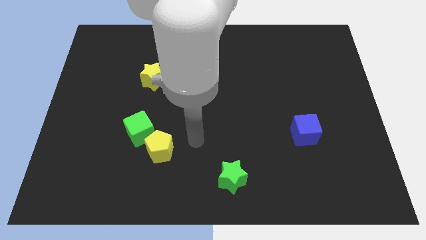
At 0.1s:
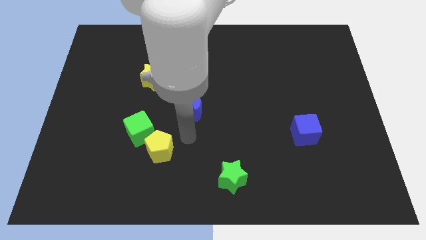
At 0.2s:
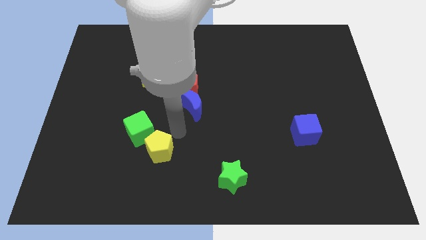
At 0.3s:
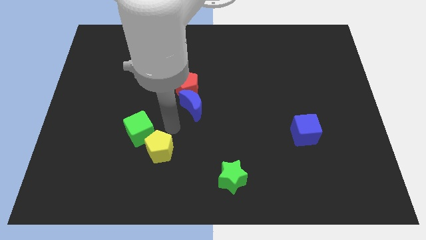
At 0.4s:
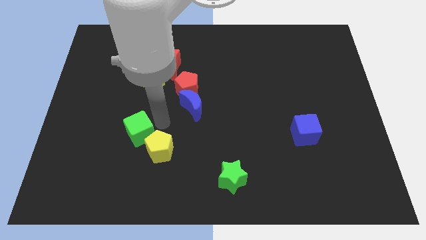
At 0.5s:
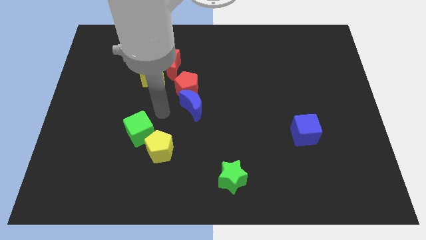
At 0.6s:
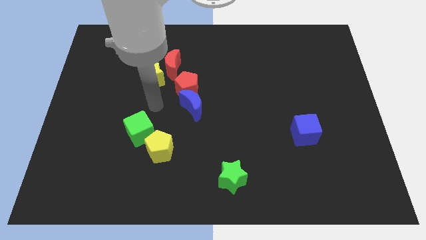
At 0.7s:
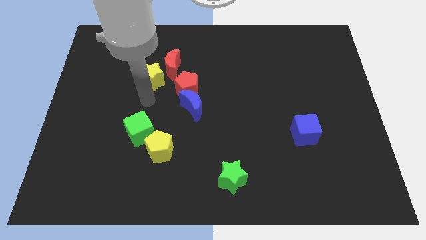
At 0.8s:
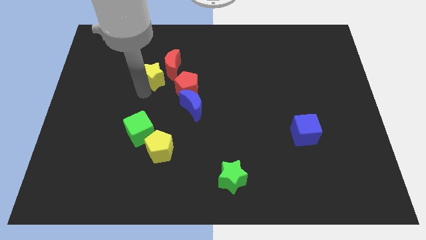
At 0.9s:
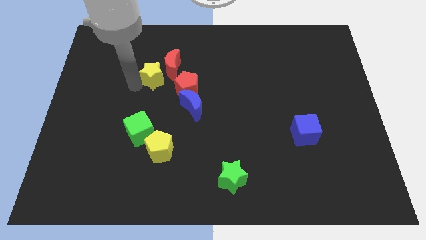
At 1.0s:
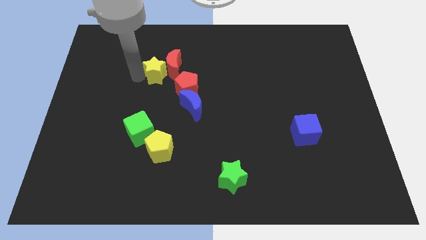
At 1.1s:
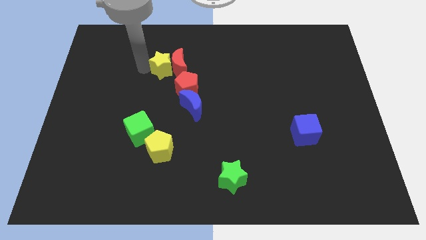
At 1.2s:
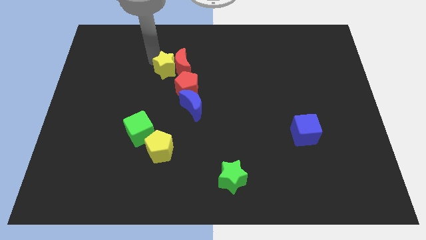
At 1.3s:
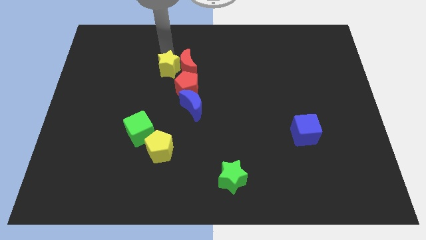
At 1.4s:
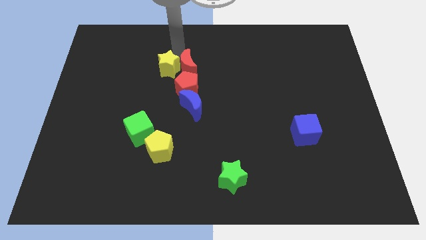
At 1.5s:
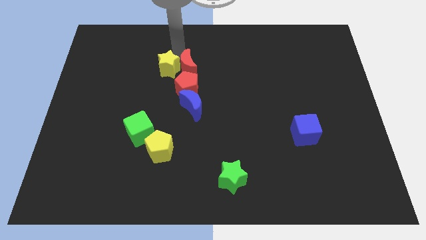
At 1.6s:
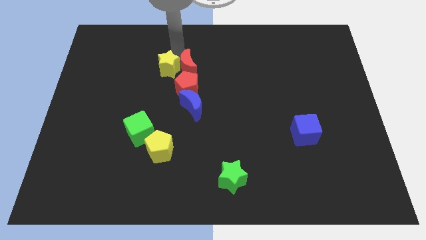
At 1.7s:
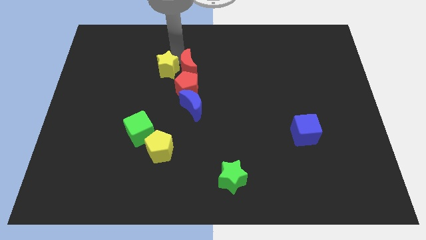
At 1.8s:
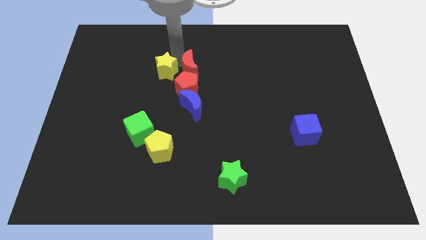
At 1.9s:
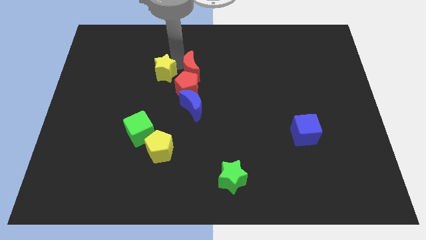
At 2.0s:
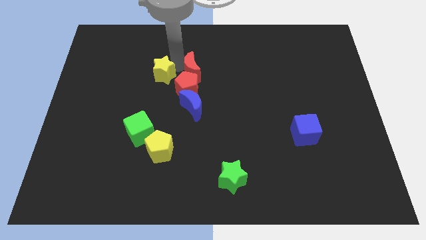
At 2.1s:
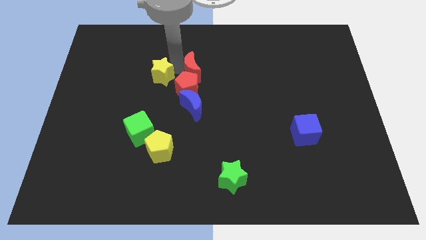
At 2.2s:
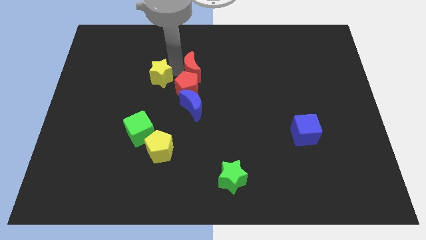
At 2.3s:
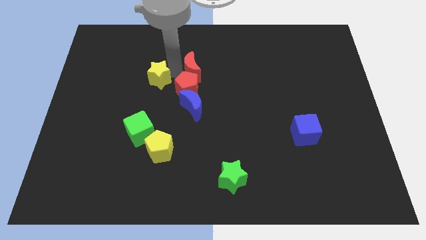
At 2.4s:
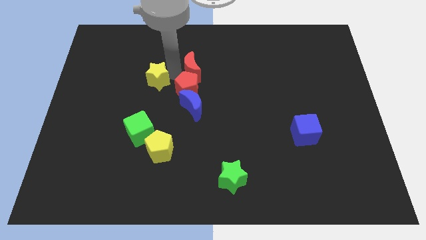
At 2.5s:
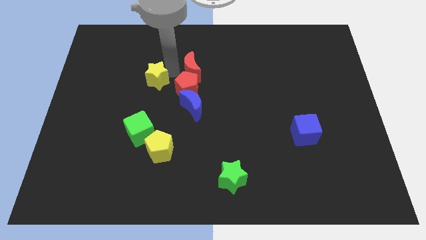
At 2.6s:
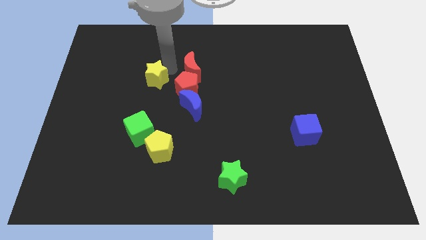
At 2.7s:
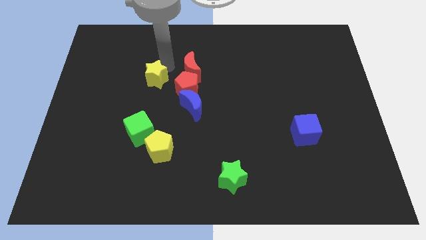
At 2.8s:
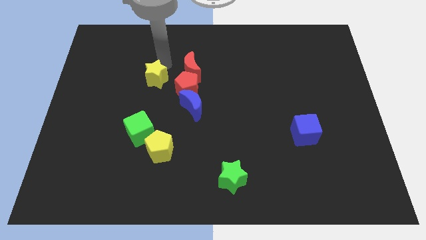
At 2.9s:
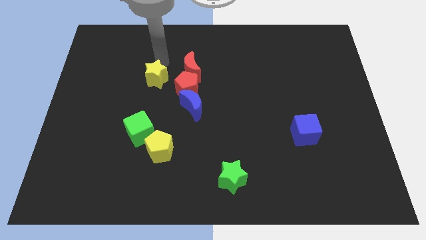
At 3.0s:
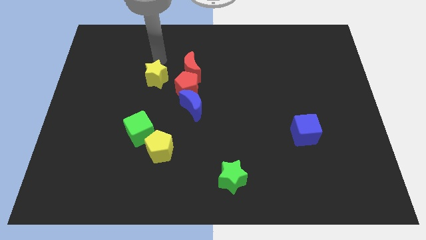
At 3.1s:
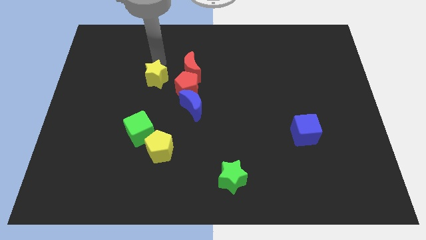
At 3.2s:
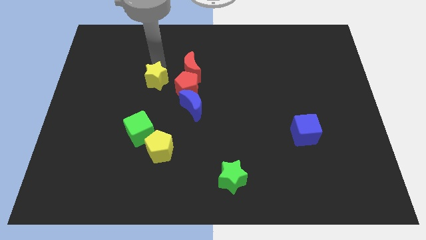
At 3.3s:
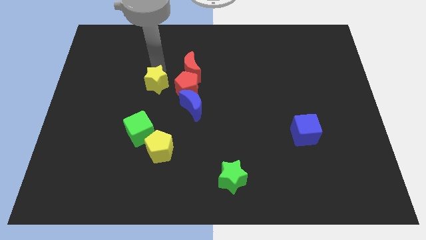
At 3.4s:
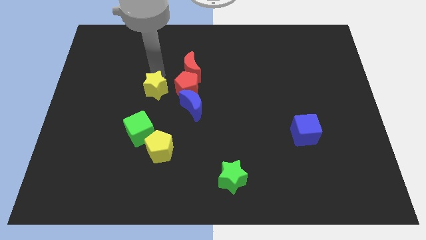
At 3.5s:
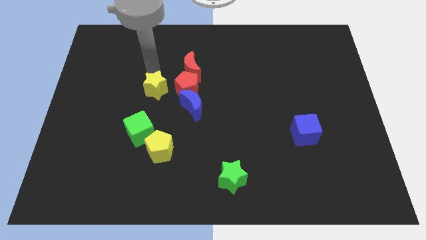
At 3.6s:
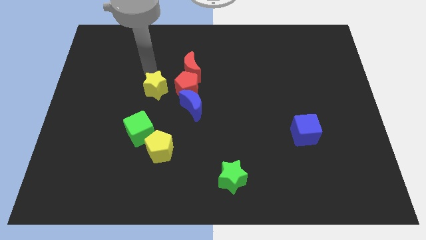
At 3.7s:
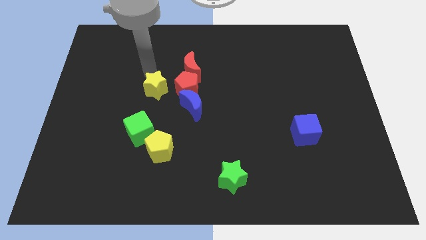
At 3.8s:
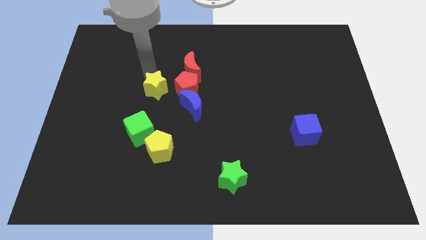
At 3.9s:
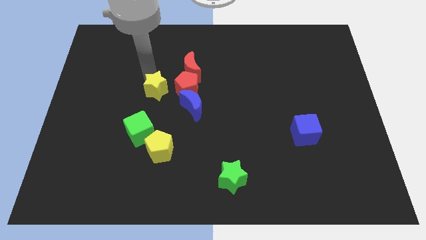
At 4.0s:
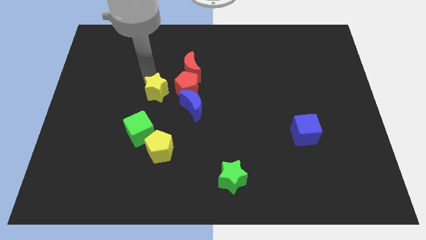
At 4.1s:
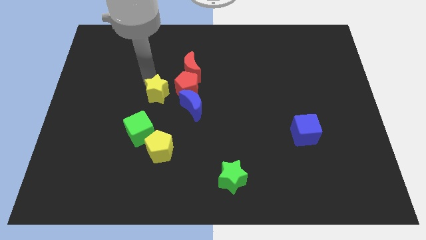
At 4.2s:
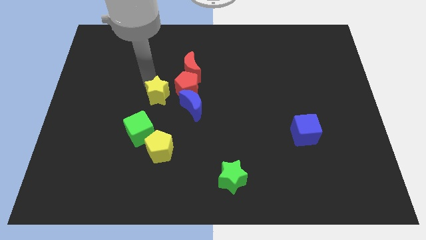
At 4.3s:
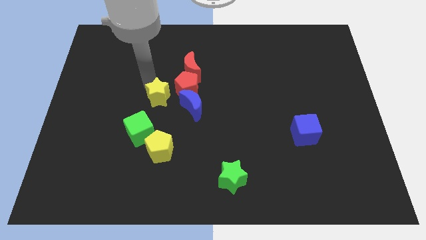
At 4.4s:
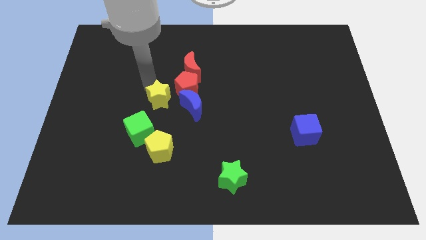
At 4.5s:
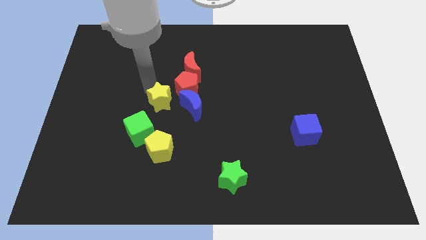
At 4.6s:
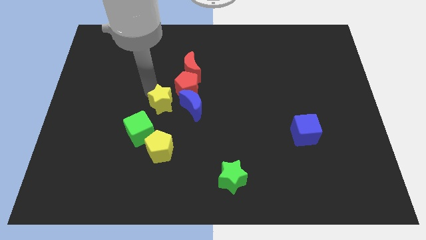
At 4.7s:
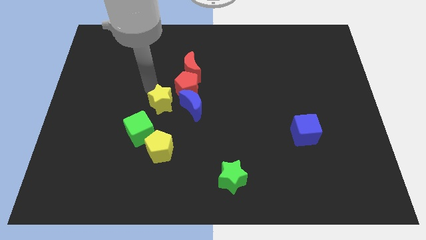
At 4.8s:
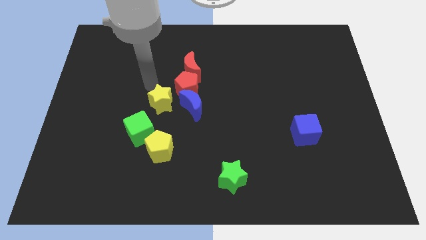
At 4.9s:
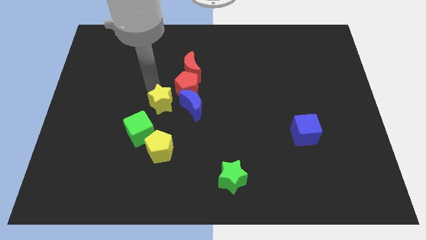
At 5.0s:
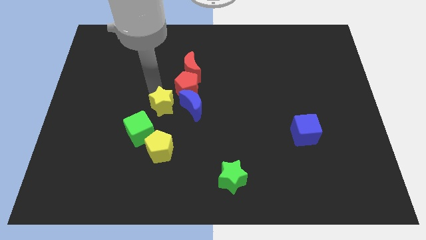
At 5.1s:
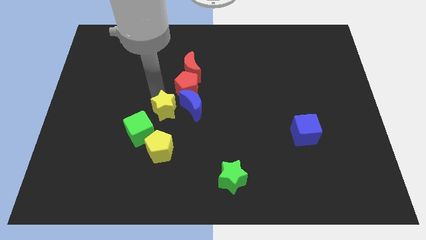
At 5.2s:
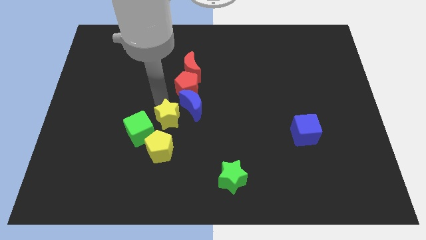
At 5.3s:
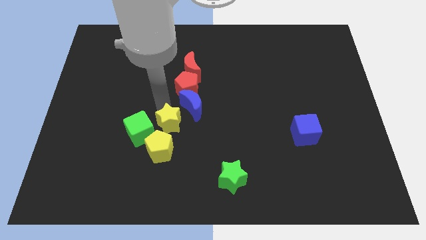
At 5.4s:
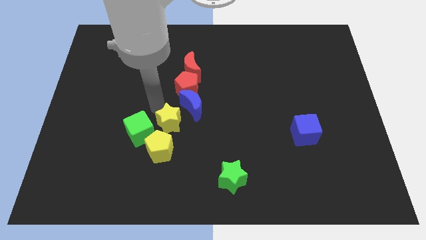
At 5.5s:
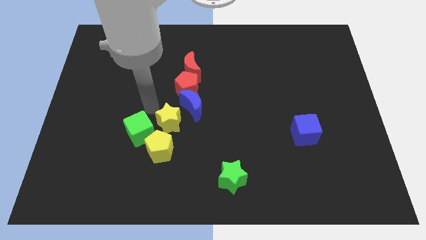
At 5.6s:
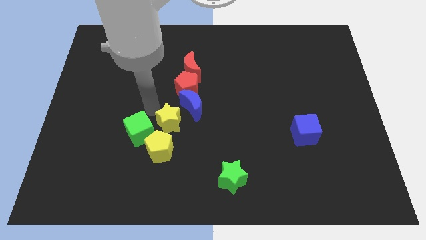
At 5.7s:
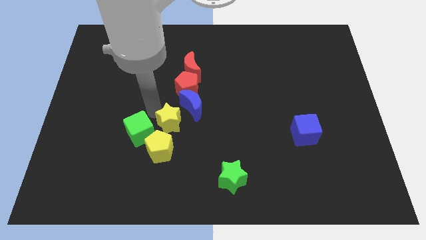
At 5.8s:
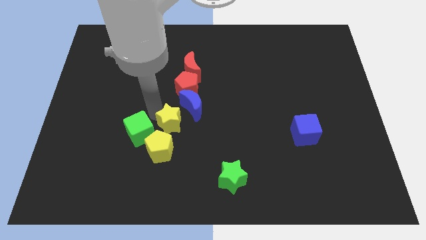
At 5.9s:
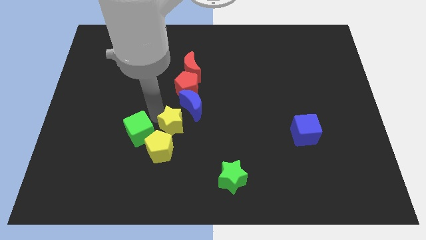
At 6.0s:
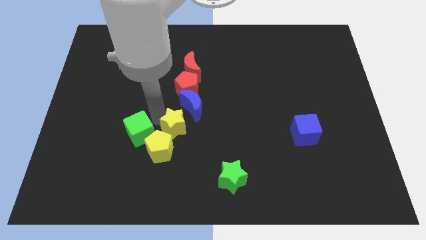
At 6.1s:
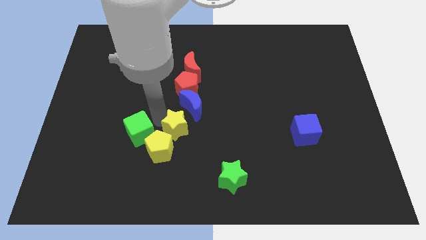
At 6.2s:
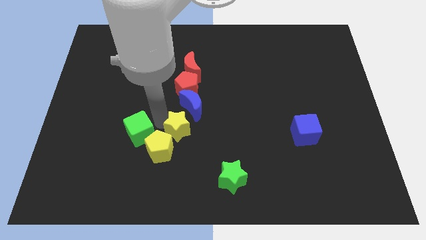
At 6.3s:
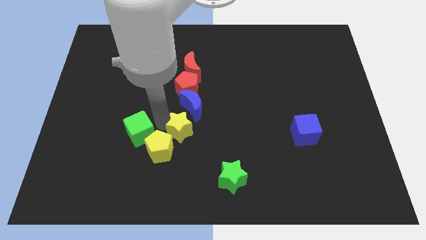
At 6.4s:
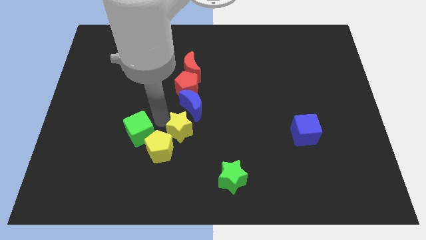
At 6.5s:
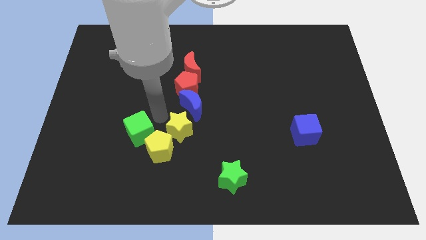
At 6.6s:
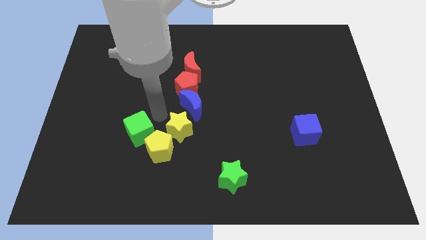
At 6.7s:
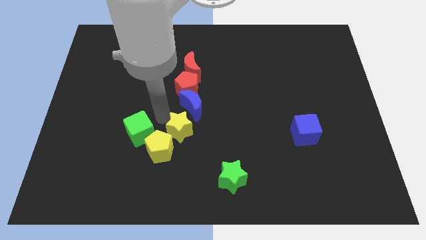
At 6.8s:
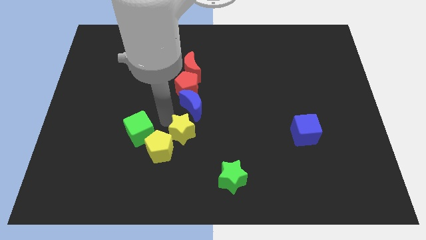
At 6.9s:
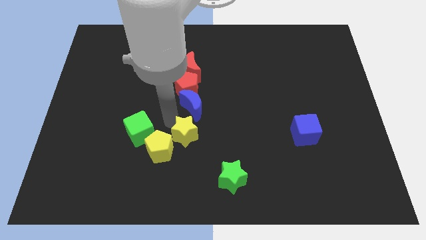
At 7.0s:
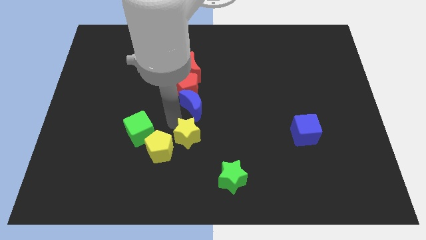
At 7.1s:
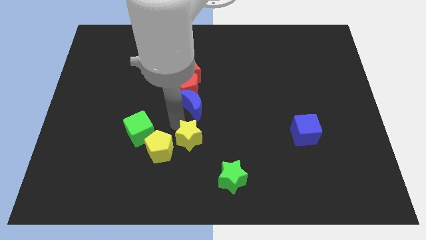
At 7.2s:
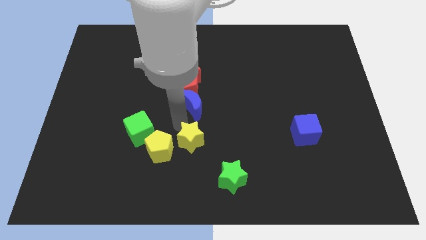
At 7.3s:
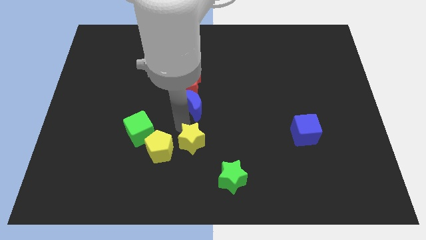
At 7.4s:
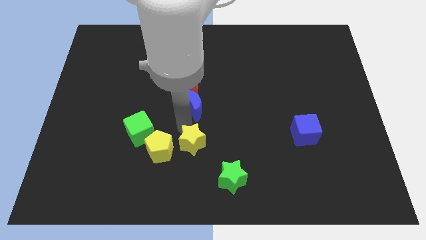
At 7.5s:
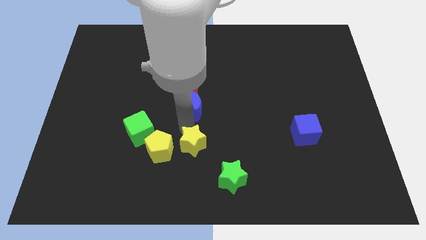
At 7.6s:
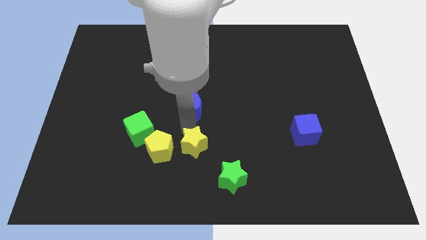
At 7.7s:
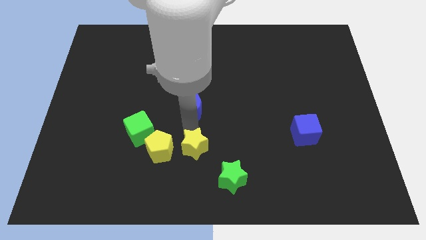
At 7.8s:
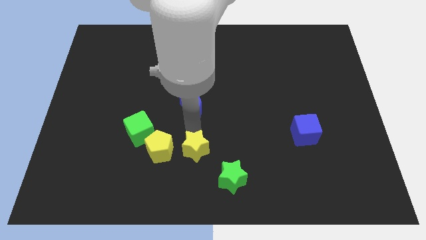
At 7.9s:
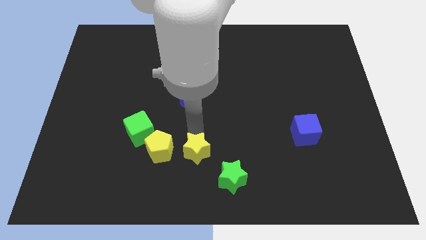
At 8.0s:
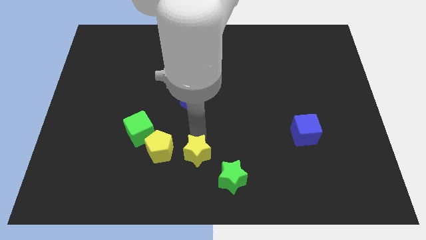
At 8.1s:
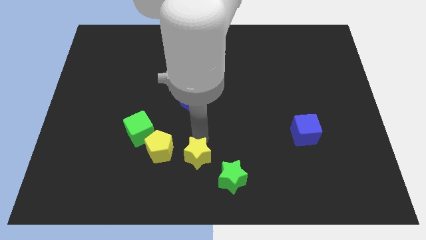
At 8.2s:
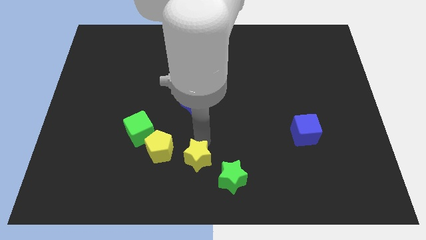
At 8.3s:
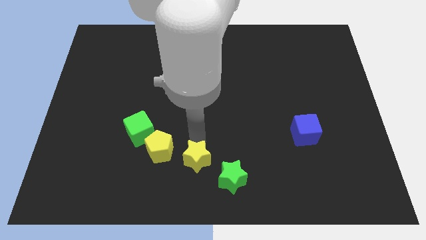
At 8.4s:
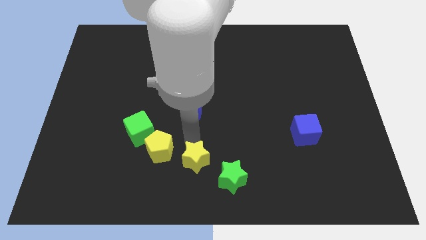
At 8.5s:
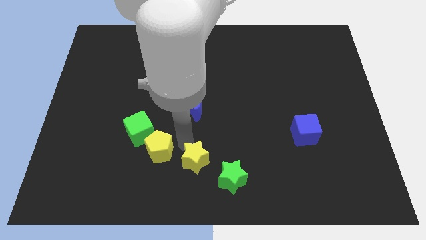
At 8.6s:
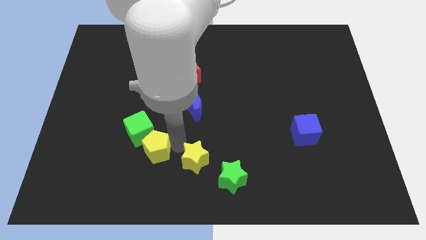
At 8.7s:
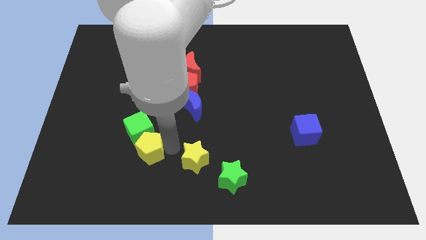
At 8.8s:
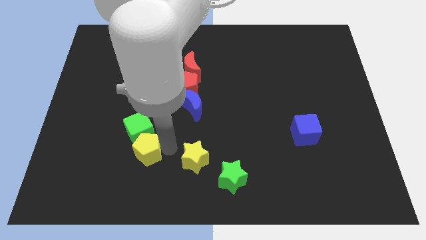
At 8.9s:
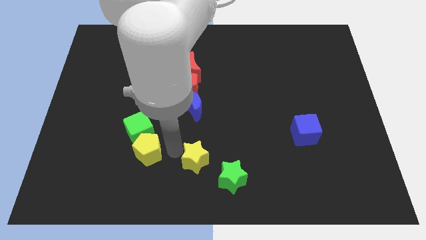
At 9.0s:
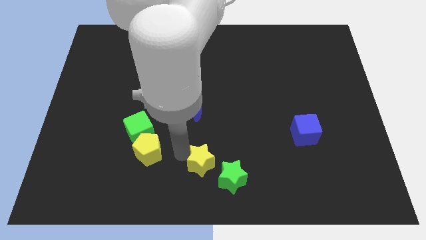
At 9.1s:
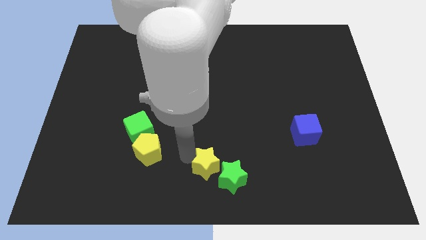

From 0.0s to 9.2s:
put the yellow star close to the green star
